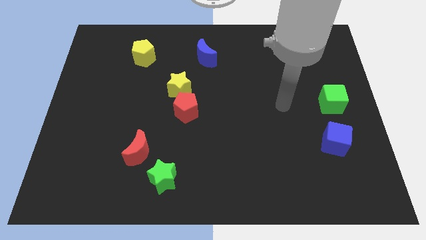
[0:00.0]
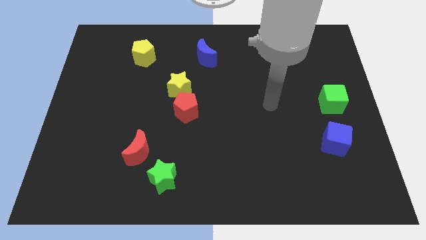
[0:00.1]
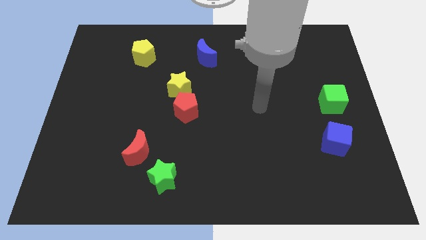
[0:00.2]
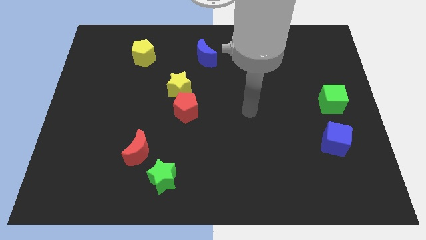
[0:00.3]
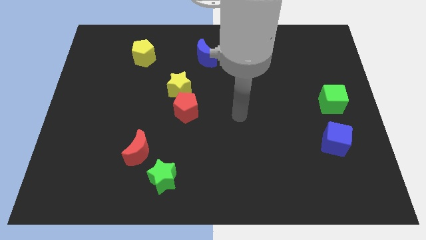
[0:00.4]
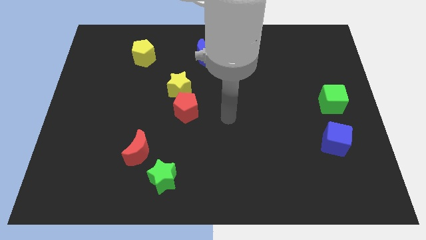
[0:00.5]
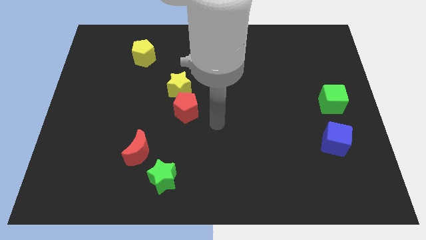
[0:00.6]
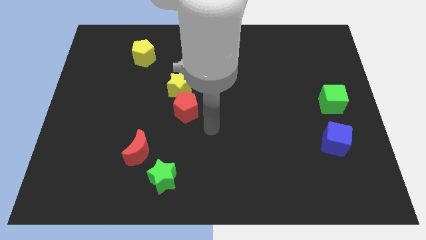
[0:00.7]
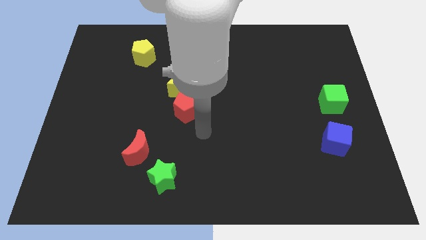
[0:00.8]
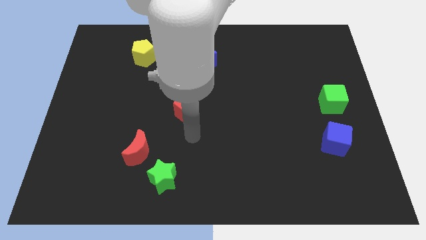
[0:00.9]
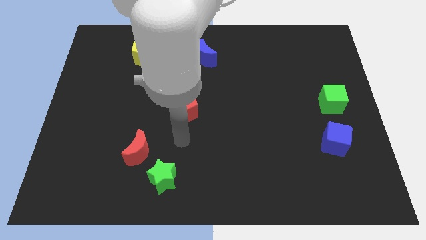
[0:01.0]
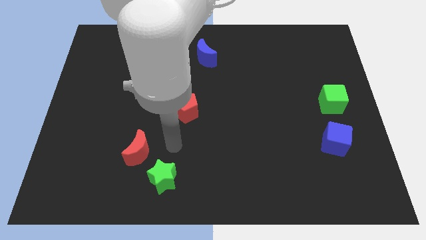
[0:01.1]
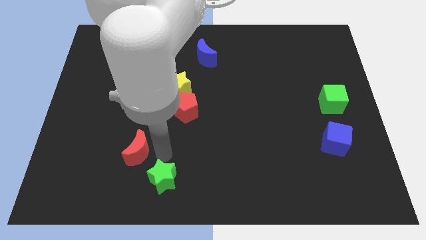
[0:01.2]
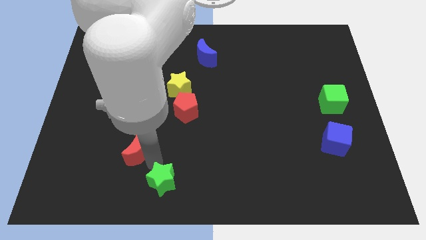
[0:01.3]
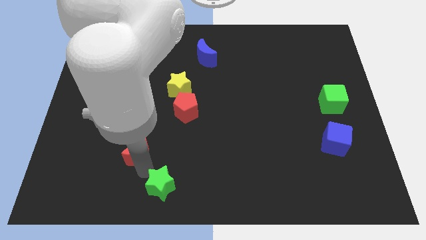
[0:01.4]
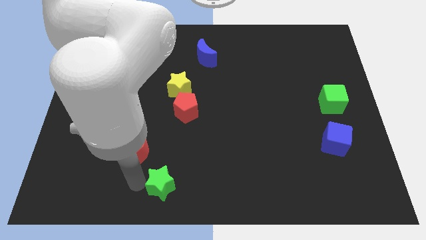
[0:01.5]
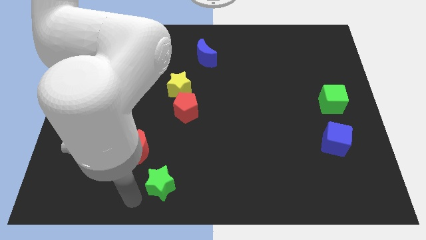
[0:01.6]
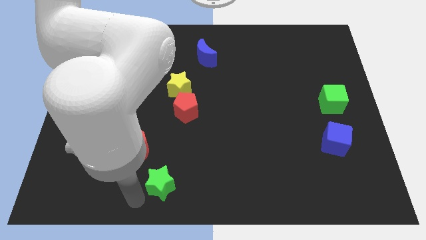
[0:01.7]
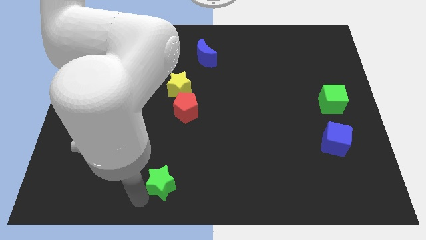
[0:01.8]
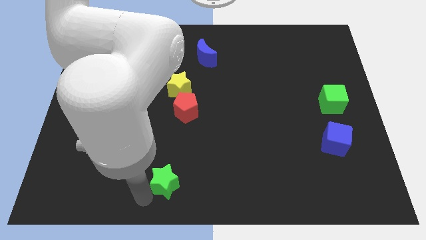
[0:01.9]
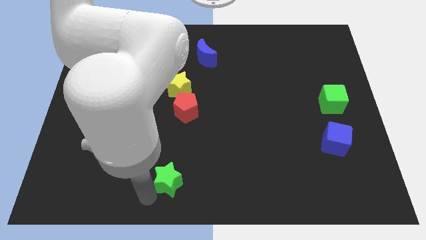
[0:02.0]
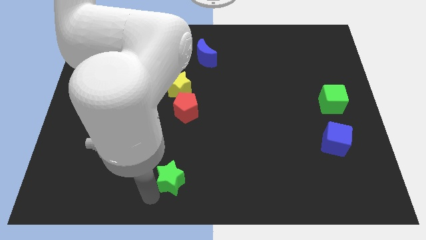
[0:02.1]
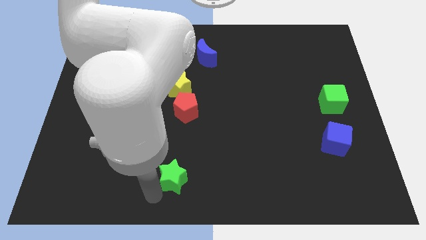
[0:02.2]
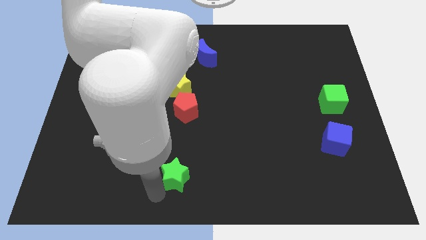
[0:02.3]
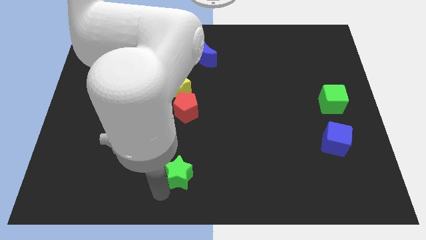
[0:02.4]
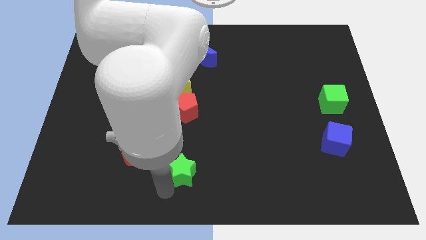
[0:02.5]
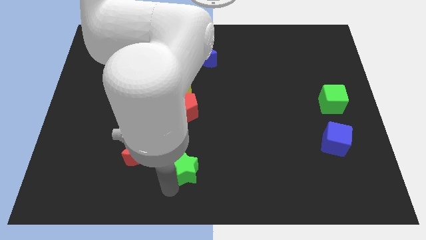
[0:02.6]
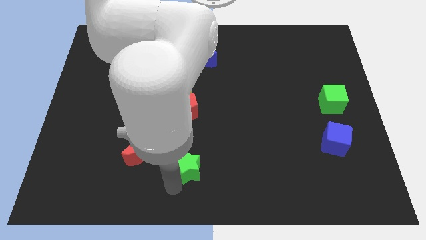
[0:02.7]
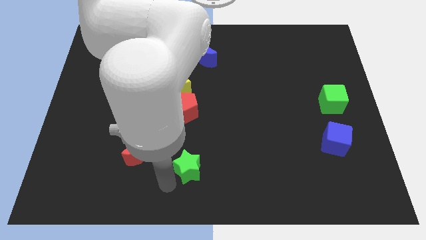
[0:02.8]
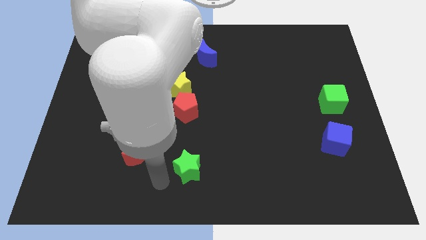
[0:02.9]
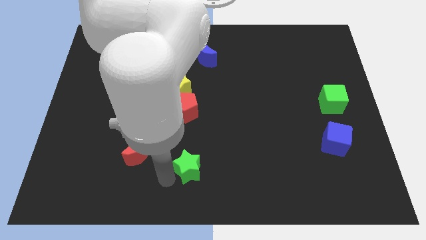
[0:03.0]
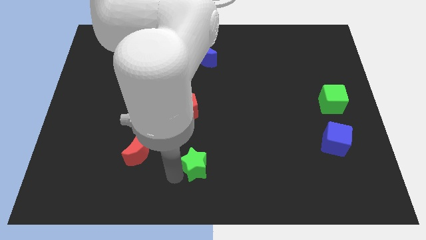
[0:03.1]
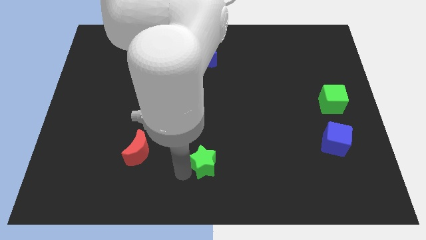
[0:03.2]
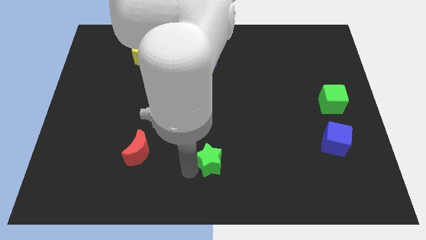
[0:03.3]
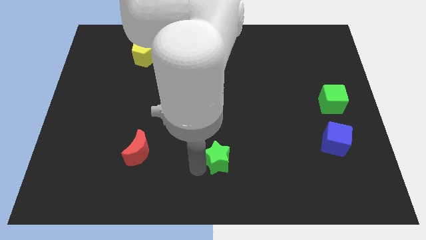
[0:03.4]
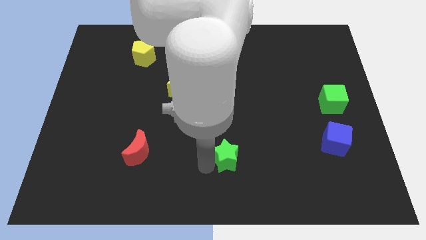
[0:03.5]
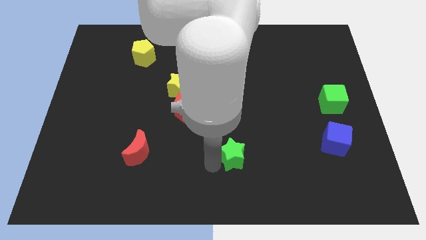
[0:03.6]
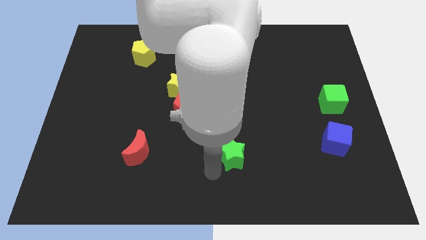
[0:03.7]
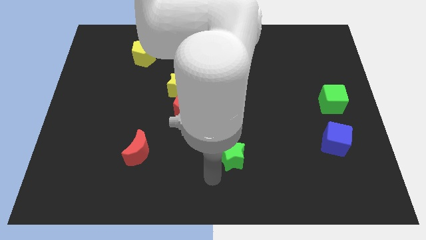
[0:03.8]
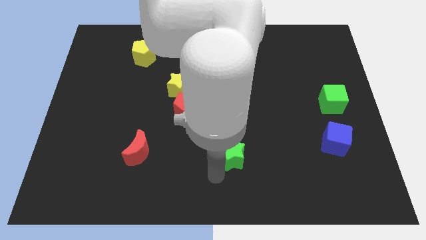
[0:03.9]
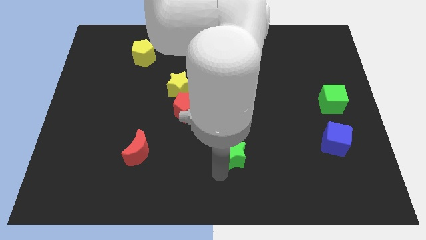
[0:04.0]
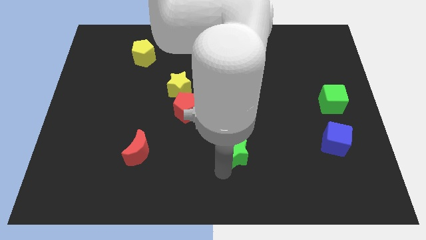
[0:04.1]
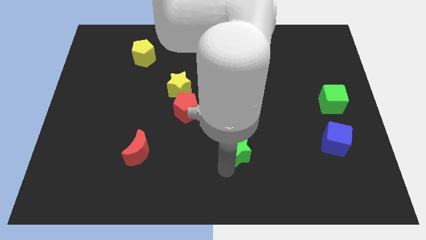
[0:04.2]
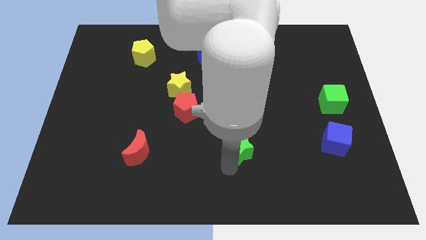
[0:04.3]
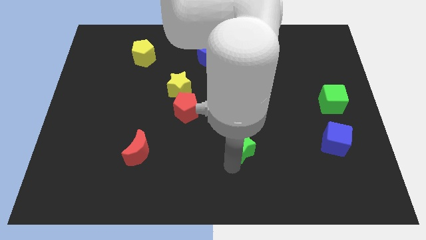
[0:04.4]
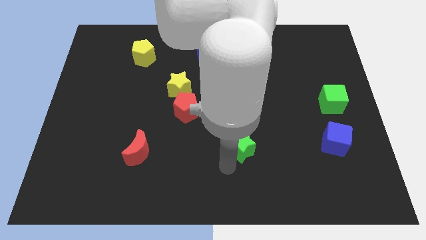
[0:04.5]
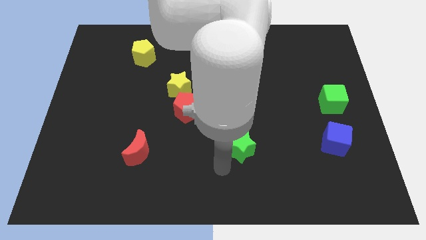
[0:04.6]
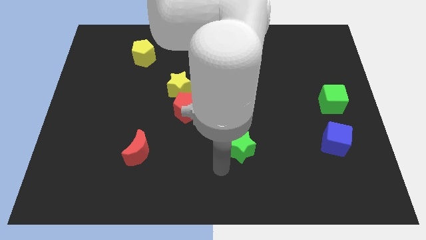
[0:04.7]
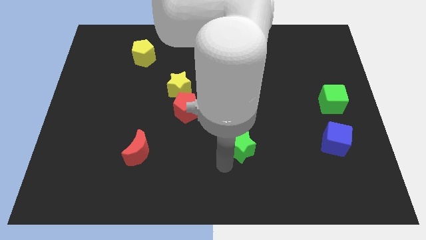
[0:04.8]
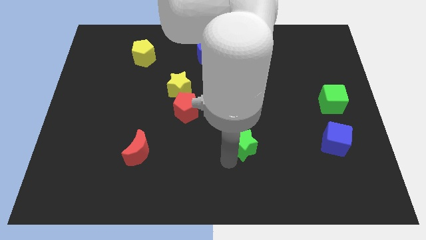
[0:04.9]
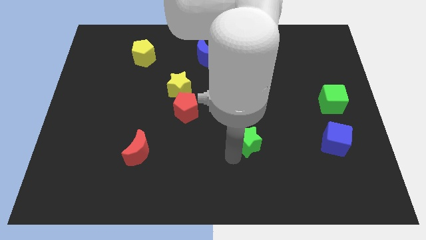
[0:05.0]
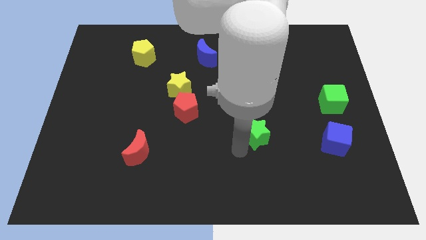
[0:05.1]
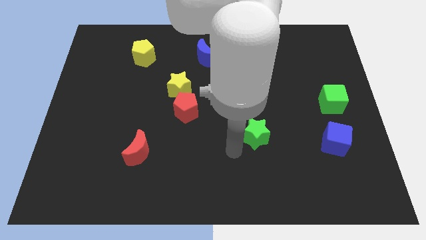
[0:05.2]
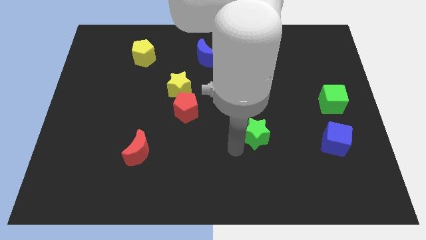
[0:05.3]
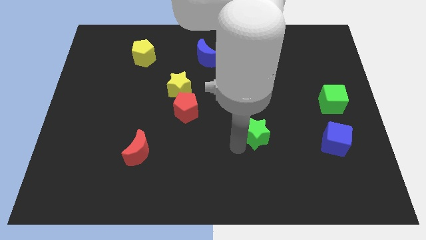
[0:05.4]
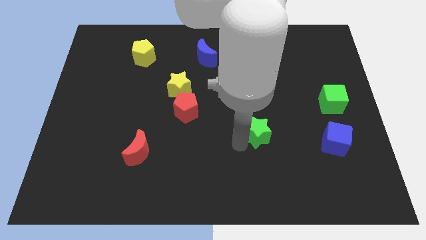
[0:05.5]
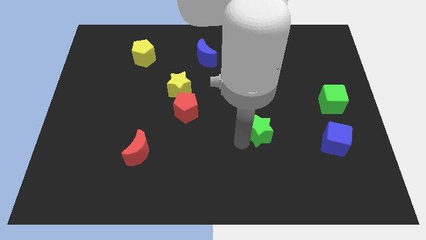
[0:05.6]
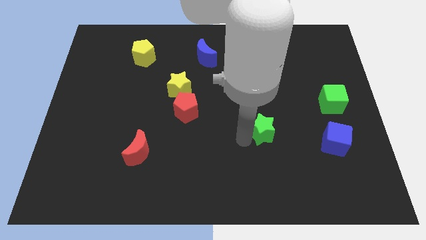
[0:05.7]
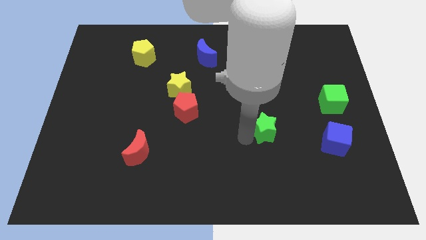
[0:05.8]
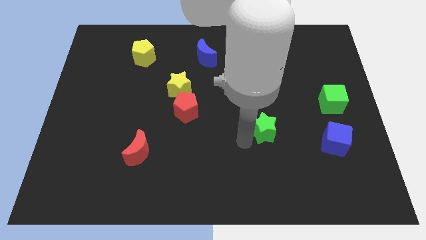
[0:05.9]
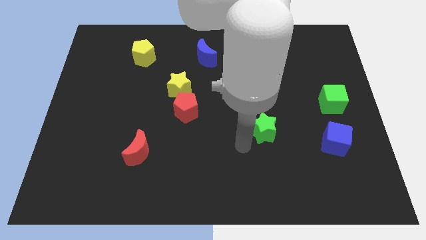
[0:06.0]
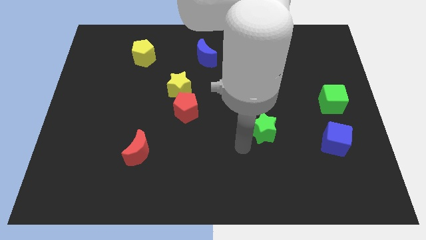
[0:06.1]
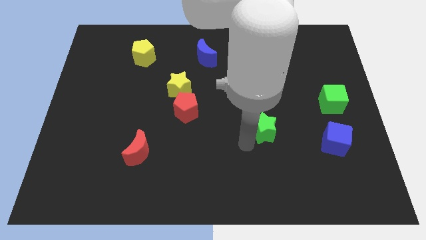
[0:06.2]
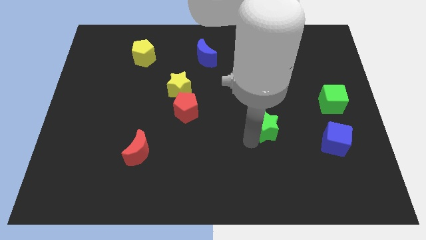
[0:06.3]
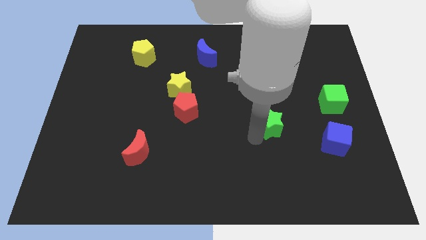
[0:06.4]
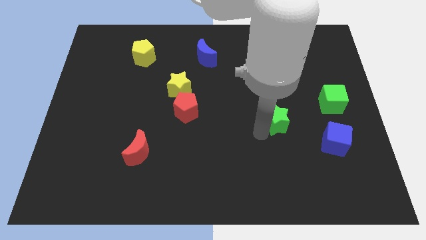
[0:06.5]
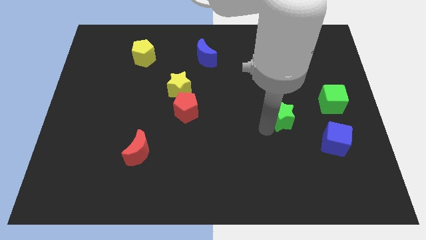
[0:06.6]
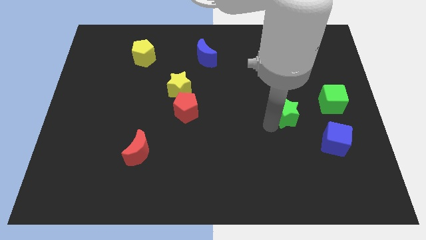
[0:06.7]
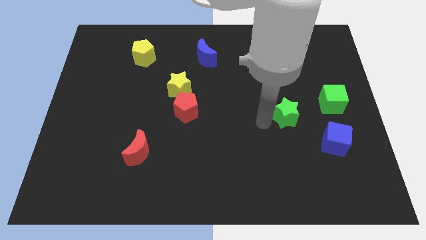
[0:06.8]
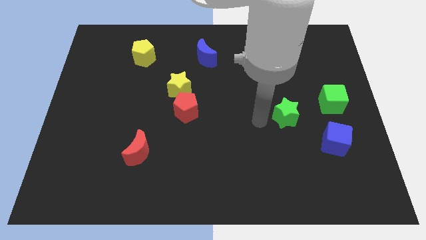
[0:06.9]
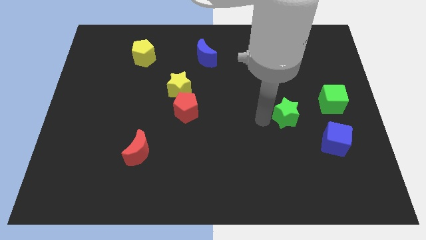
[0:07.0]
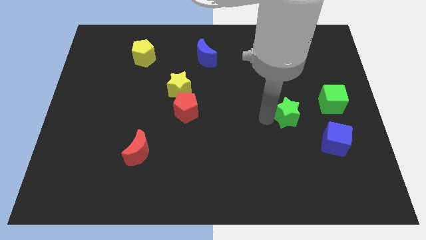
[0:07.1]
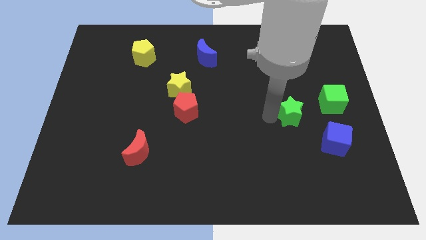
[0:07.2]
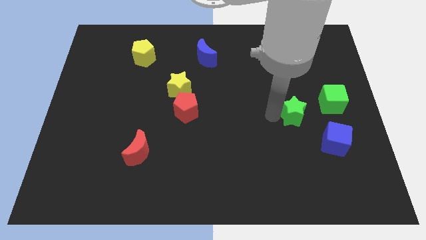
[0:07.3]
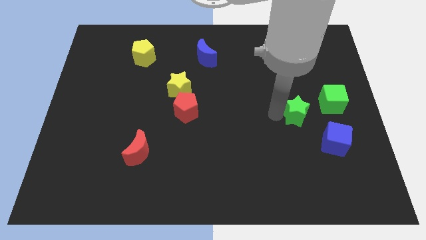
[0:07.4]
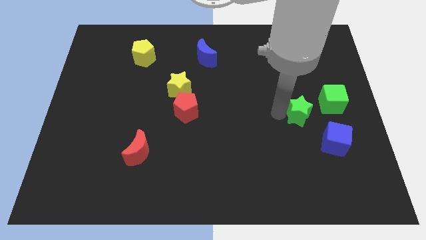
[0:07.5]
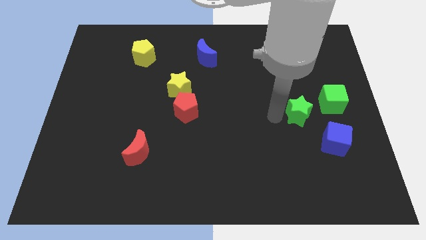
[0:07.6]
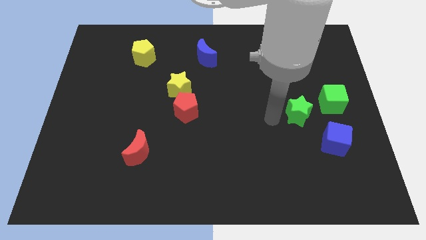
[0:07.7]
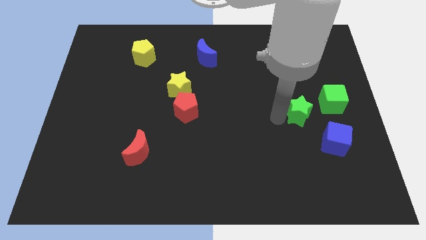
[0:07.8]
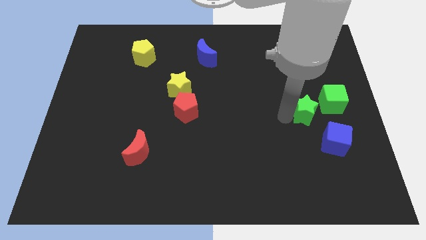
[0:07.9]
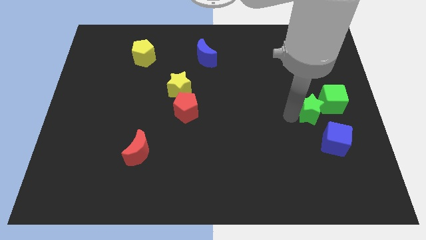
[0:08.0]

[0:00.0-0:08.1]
push the green star next to the green cube
